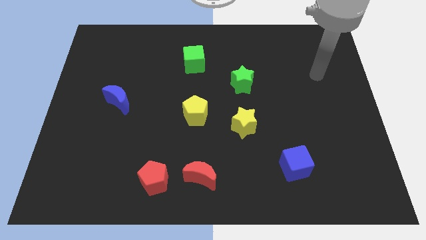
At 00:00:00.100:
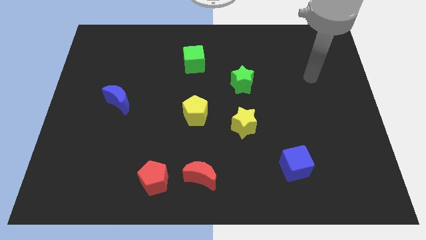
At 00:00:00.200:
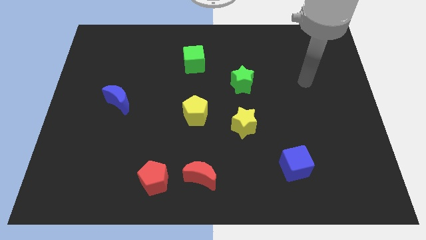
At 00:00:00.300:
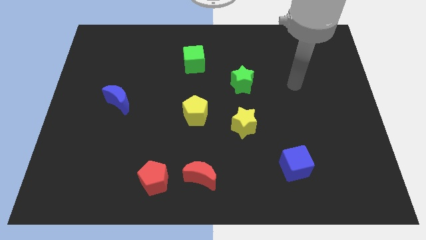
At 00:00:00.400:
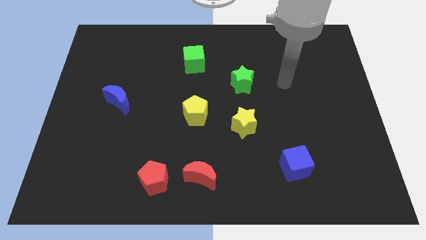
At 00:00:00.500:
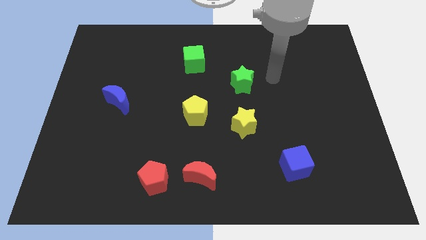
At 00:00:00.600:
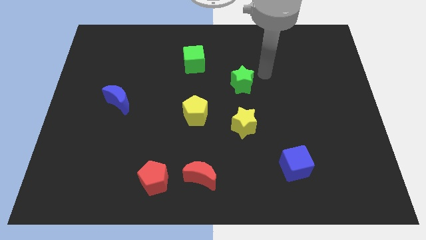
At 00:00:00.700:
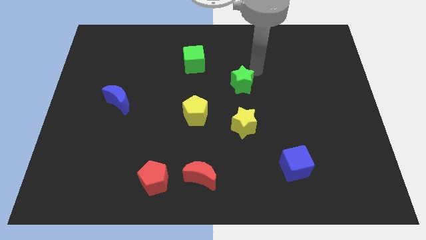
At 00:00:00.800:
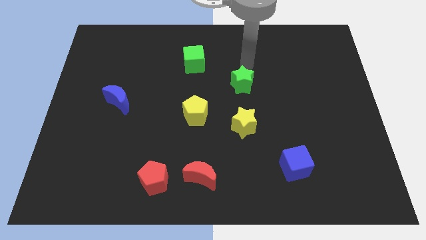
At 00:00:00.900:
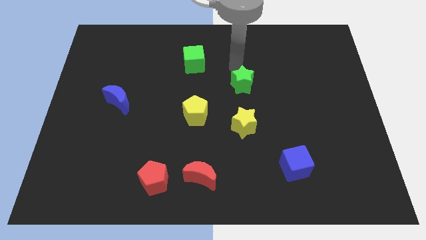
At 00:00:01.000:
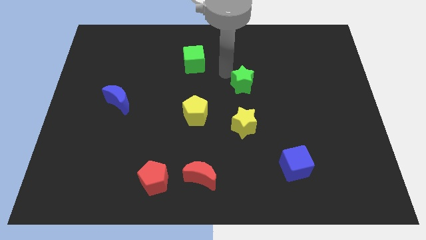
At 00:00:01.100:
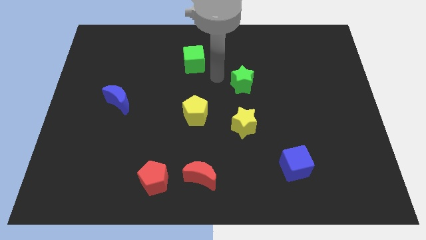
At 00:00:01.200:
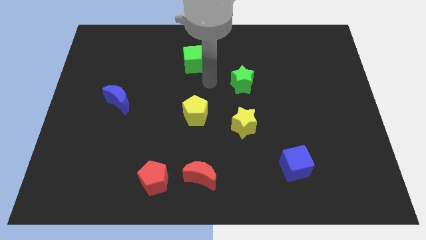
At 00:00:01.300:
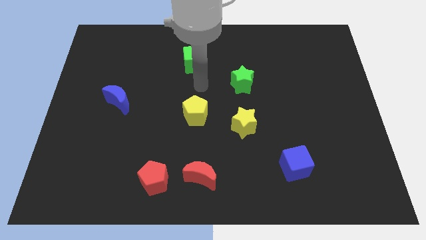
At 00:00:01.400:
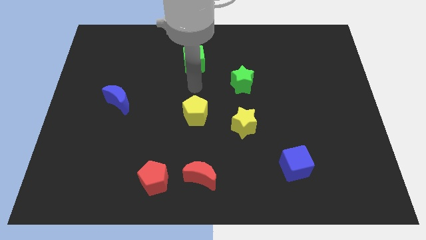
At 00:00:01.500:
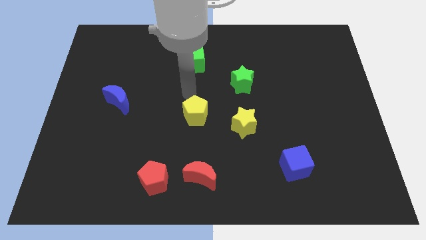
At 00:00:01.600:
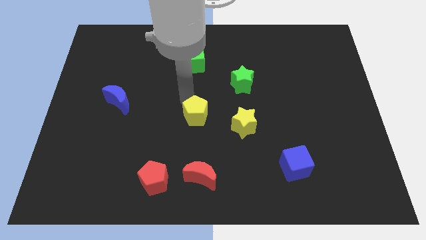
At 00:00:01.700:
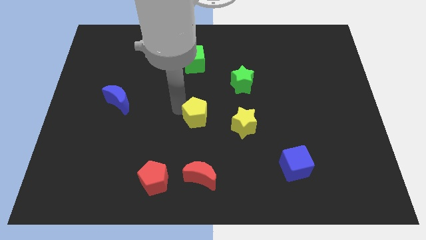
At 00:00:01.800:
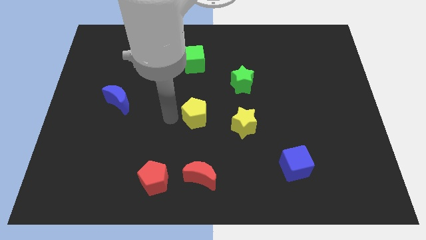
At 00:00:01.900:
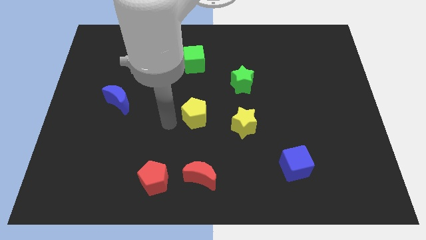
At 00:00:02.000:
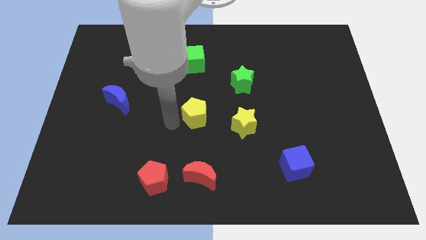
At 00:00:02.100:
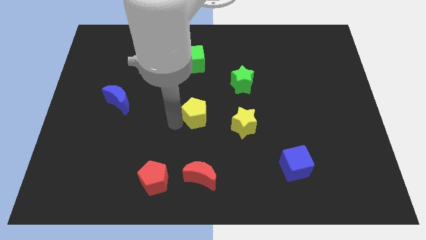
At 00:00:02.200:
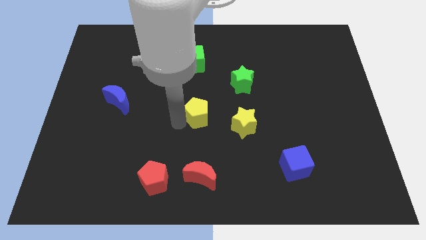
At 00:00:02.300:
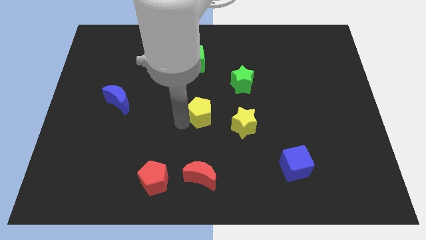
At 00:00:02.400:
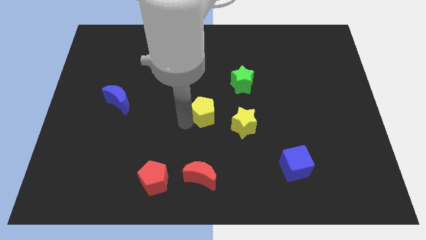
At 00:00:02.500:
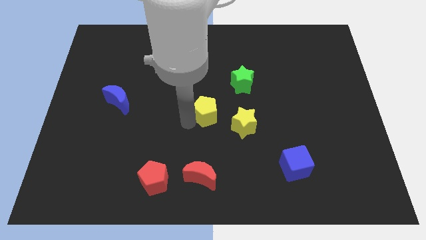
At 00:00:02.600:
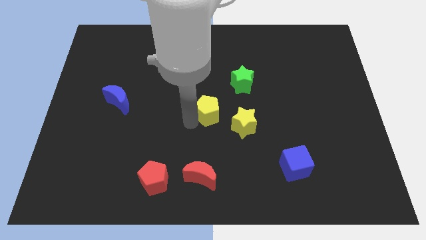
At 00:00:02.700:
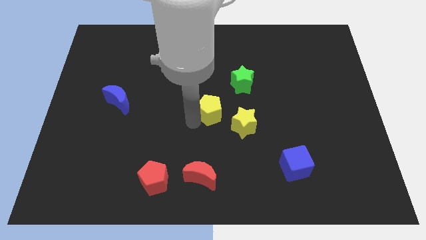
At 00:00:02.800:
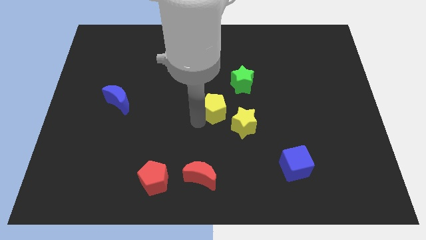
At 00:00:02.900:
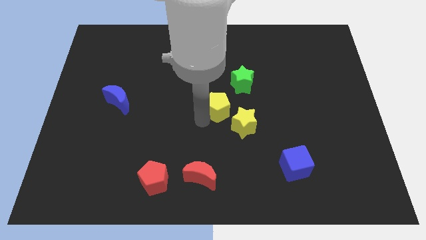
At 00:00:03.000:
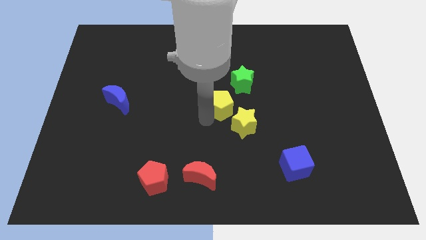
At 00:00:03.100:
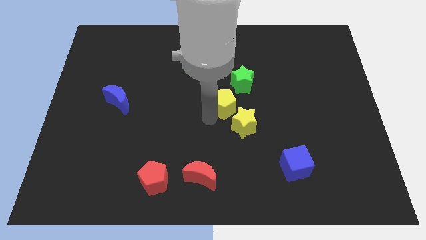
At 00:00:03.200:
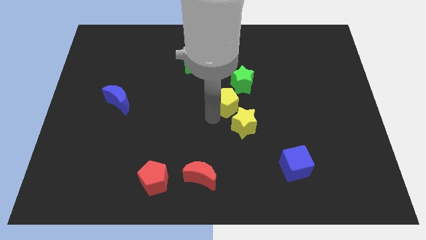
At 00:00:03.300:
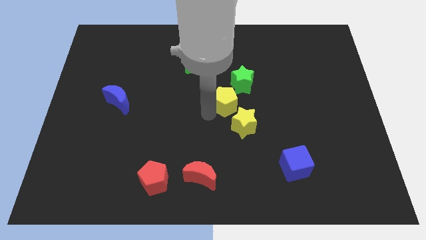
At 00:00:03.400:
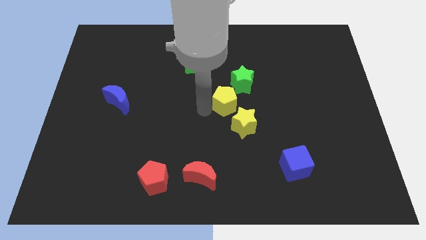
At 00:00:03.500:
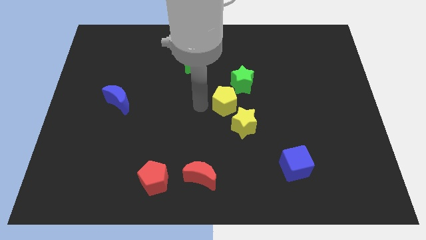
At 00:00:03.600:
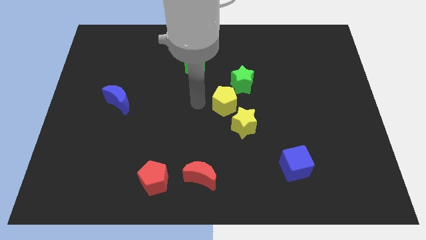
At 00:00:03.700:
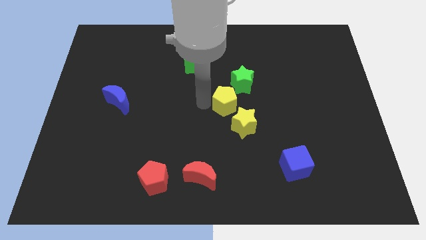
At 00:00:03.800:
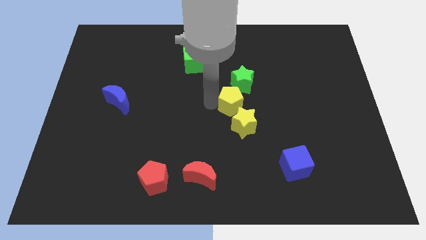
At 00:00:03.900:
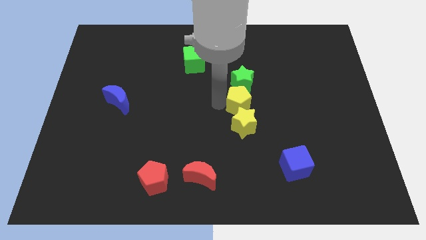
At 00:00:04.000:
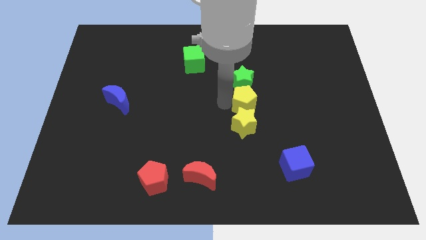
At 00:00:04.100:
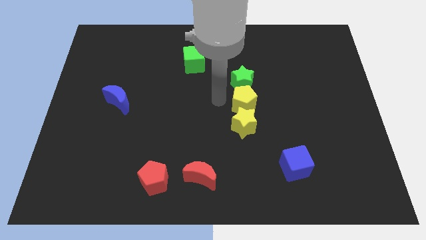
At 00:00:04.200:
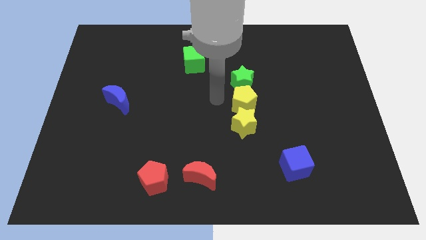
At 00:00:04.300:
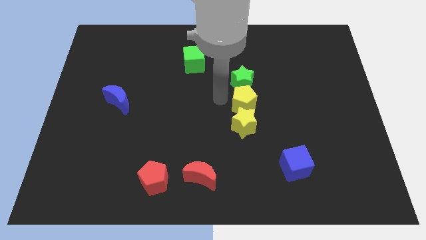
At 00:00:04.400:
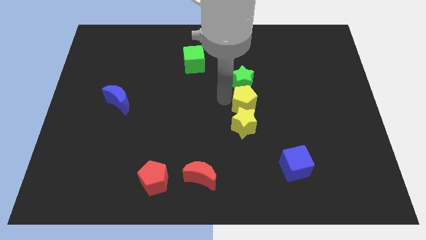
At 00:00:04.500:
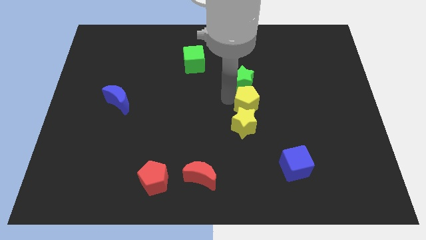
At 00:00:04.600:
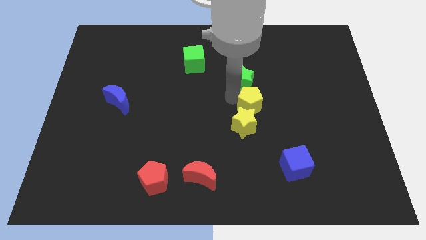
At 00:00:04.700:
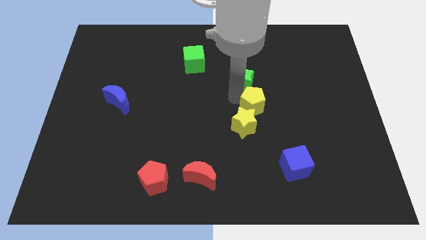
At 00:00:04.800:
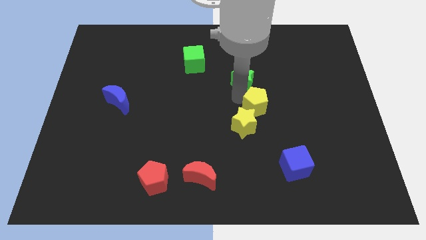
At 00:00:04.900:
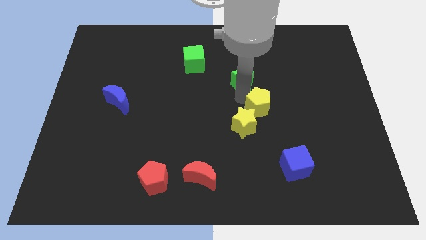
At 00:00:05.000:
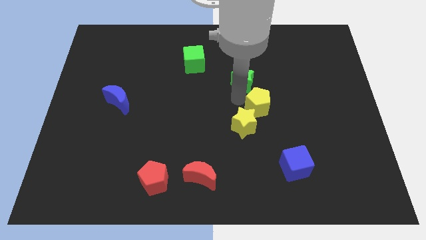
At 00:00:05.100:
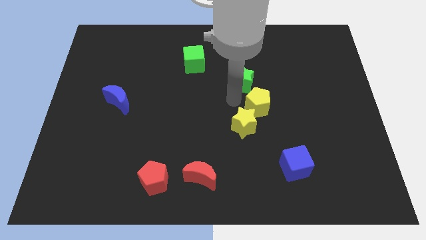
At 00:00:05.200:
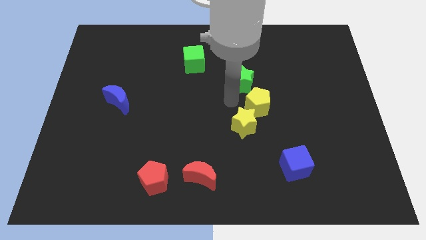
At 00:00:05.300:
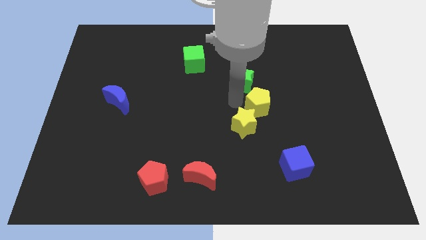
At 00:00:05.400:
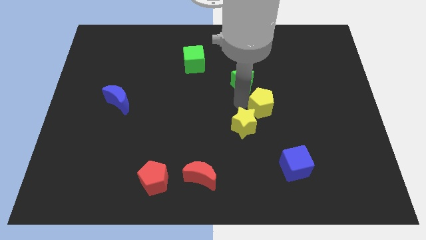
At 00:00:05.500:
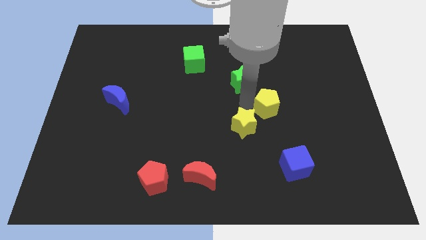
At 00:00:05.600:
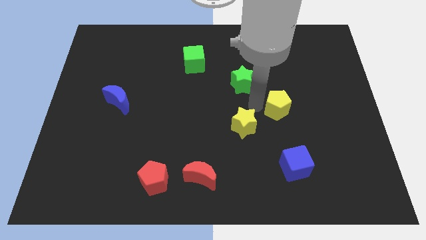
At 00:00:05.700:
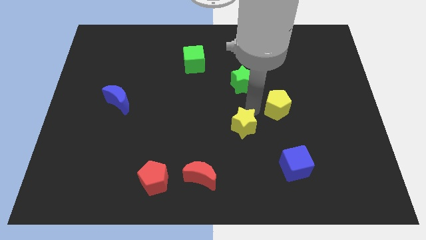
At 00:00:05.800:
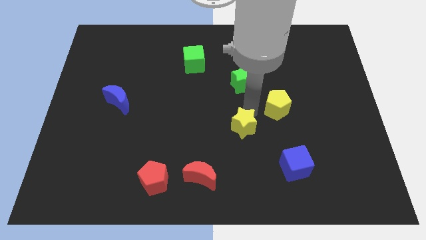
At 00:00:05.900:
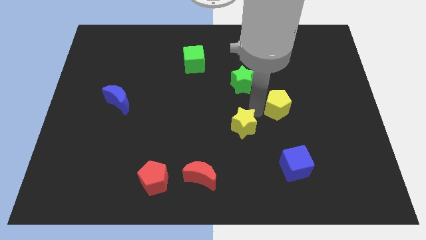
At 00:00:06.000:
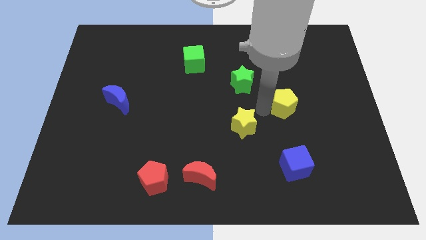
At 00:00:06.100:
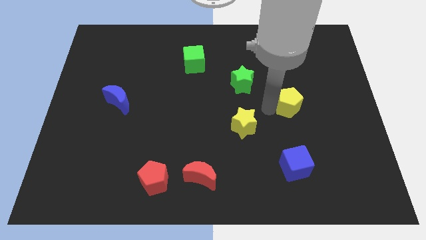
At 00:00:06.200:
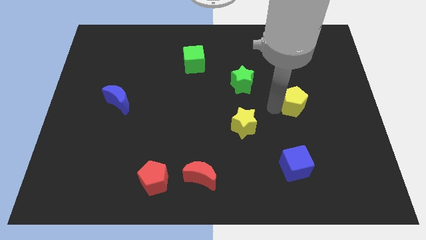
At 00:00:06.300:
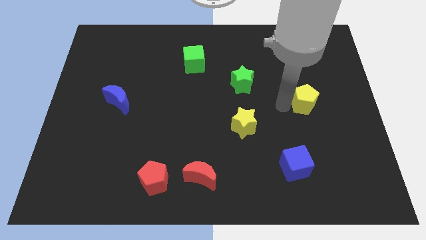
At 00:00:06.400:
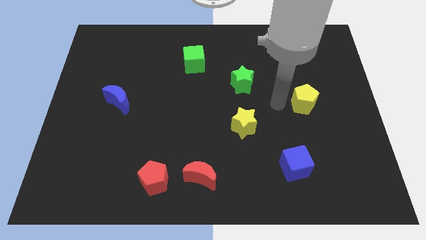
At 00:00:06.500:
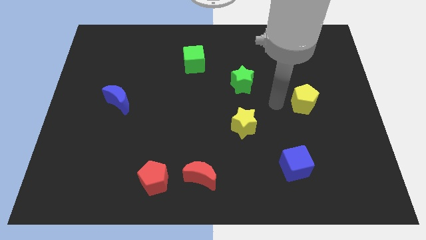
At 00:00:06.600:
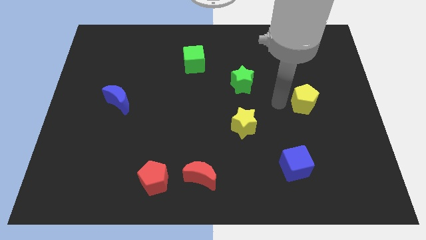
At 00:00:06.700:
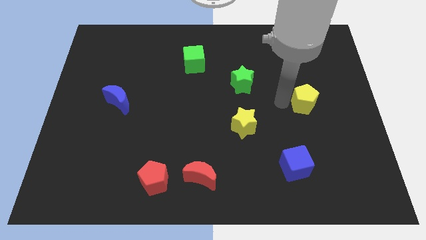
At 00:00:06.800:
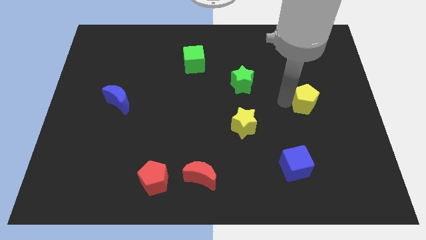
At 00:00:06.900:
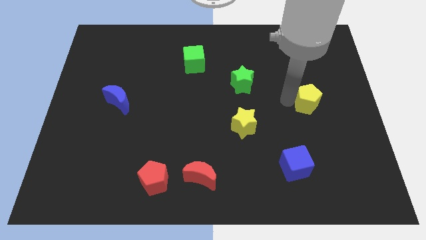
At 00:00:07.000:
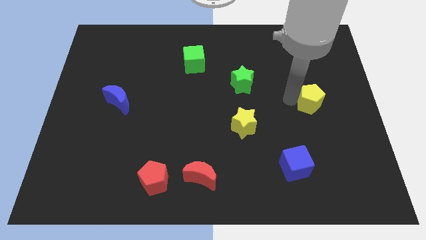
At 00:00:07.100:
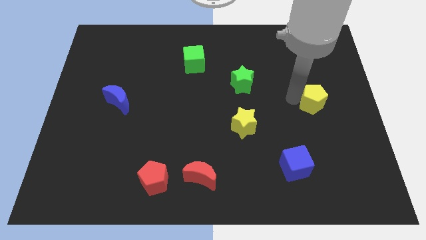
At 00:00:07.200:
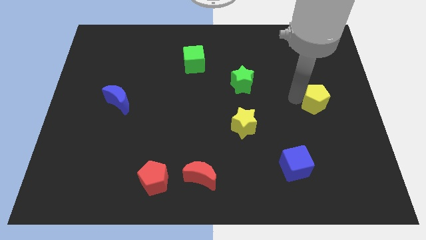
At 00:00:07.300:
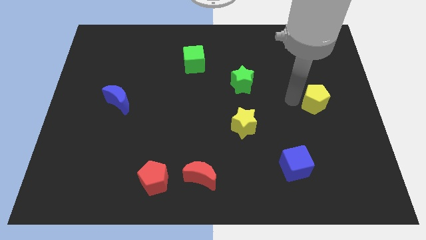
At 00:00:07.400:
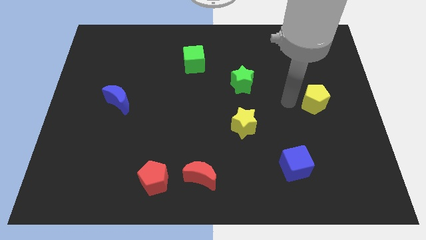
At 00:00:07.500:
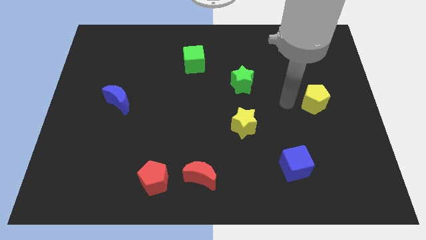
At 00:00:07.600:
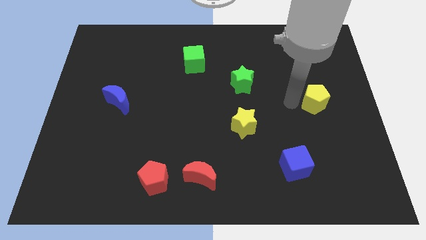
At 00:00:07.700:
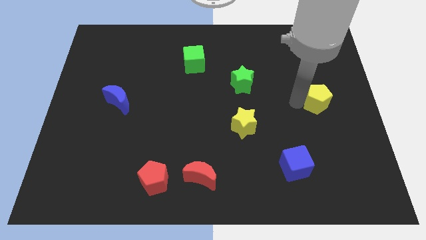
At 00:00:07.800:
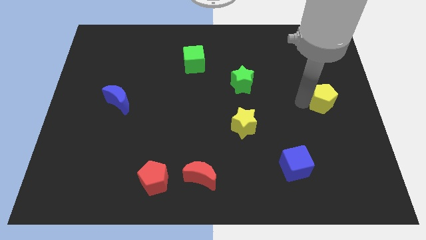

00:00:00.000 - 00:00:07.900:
put the yellow pentagon to the right side
